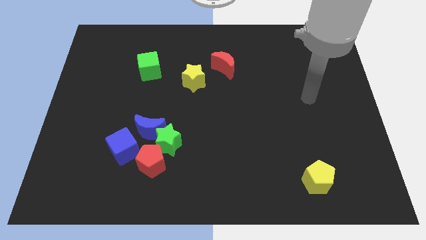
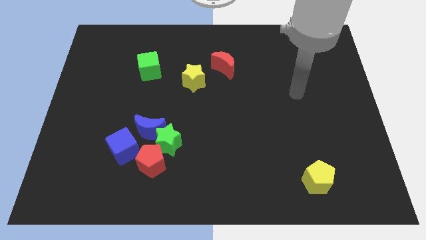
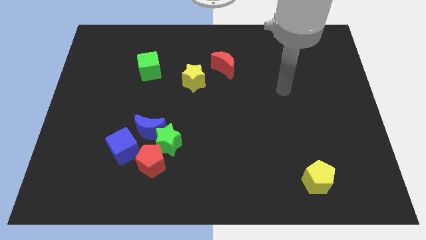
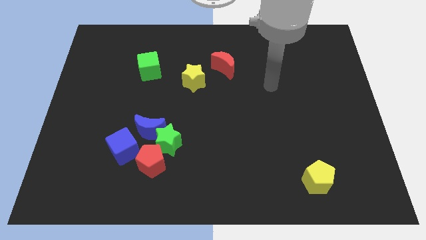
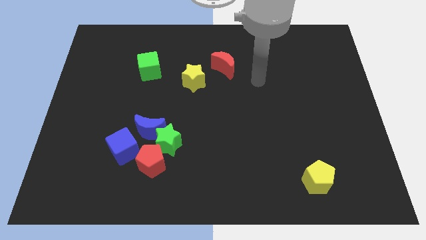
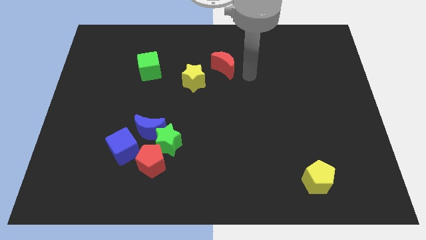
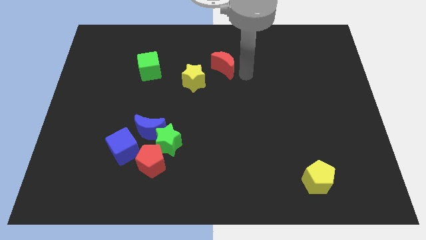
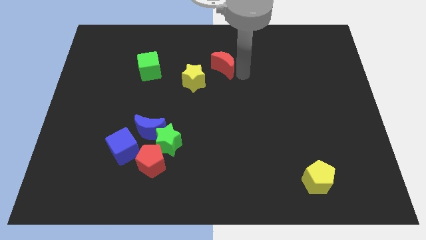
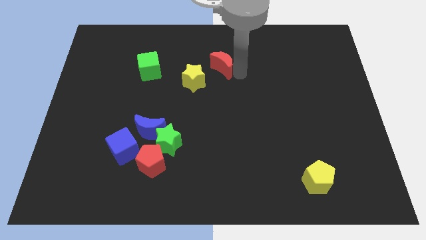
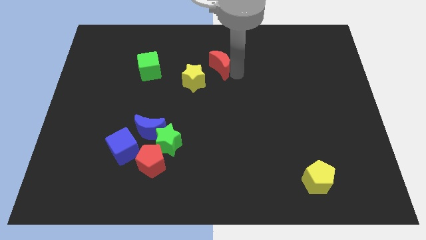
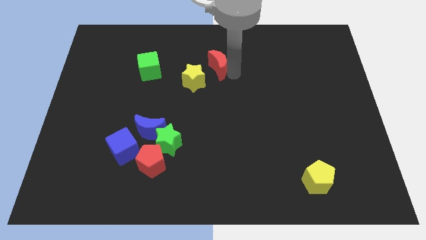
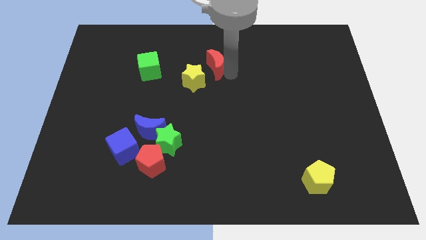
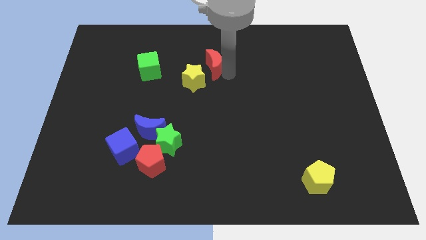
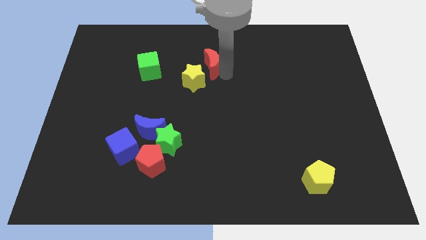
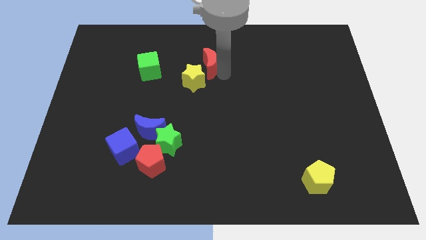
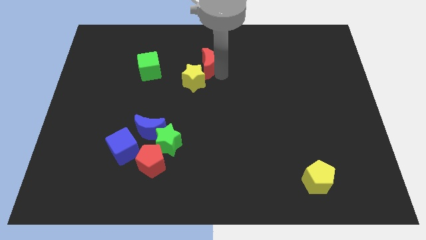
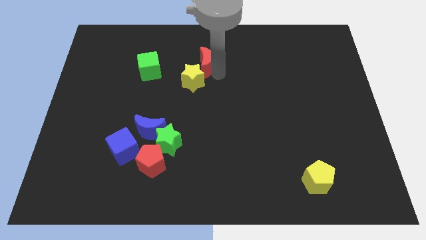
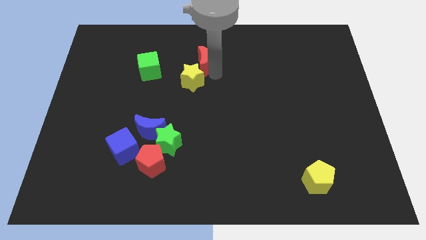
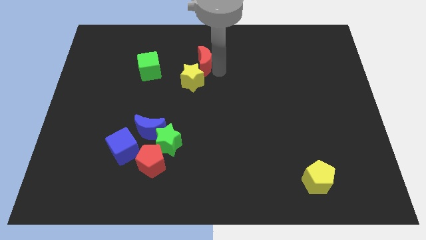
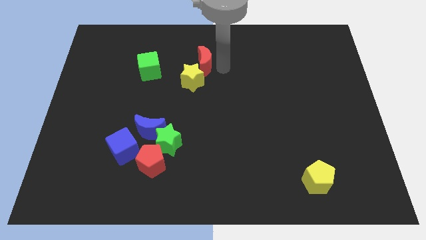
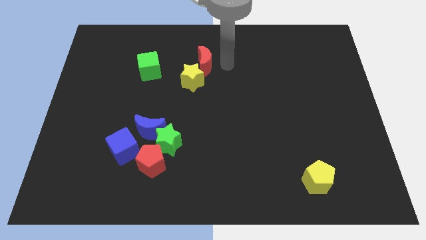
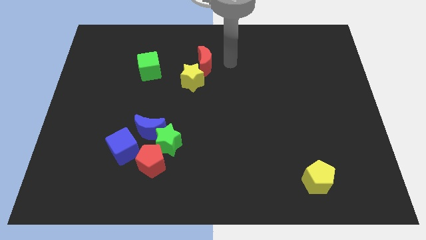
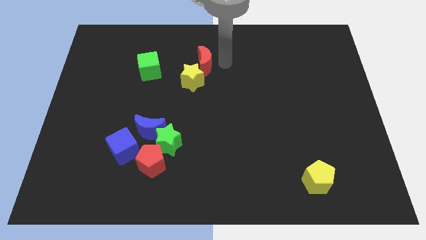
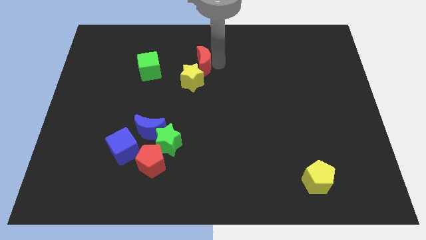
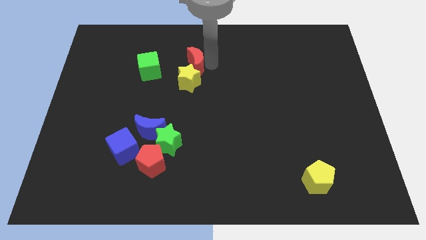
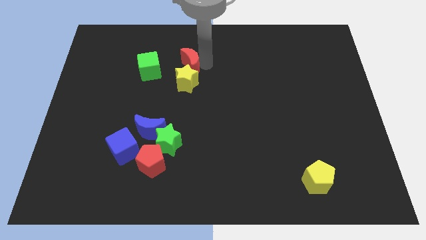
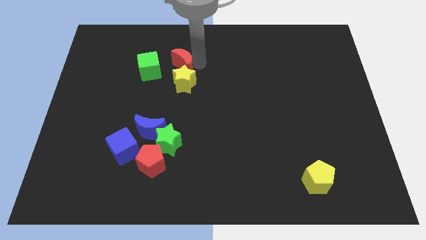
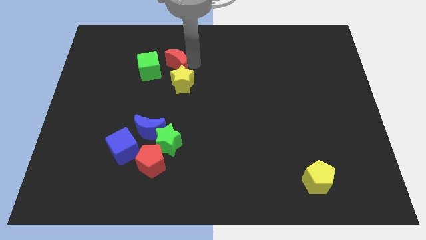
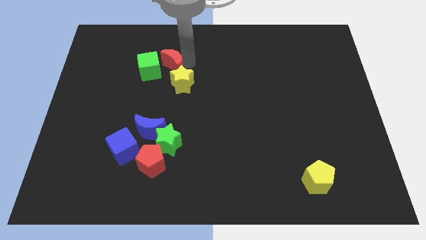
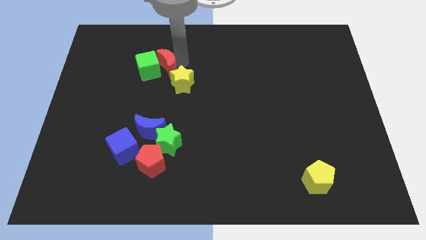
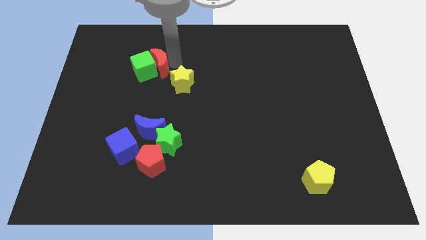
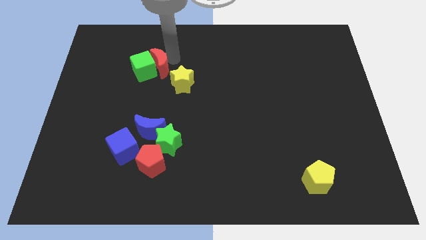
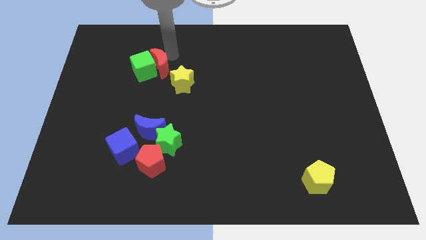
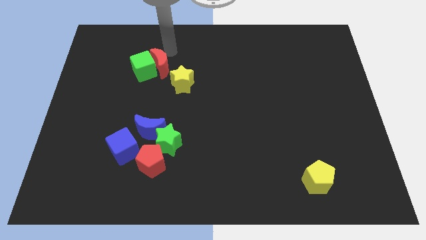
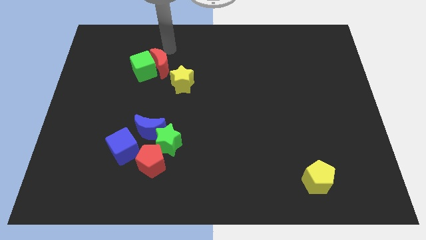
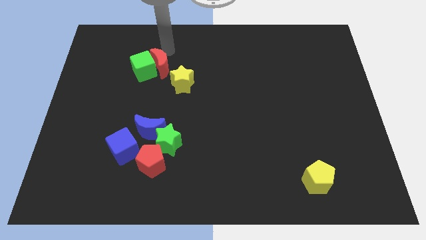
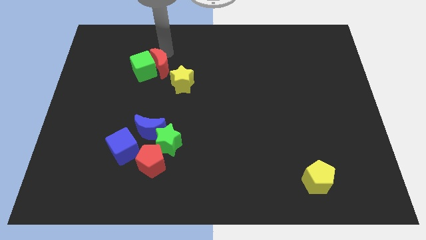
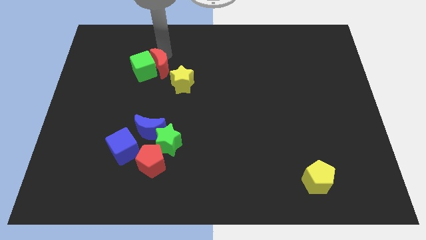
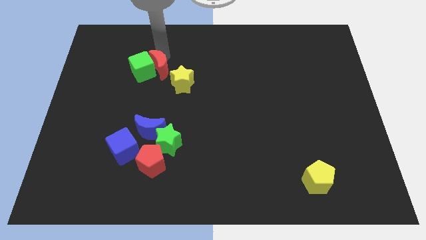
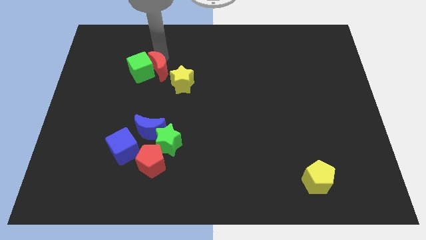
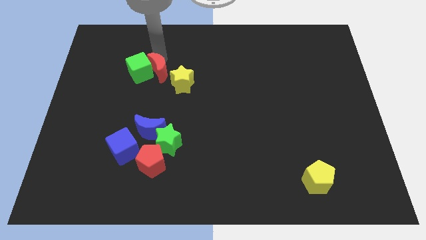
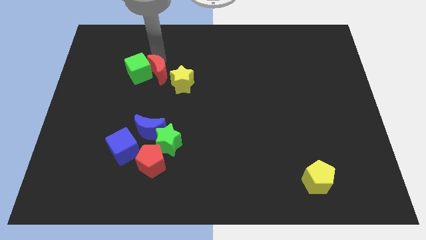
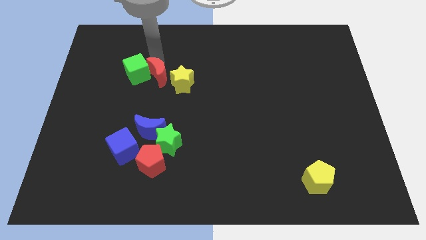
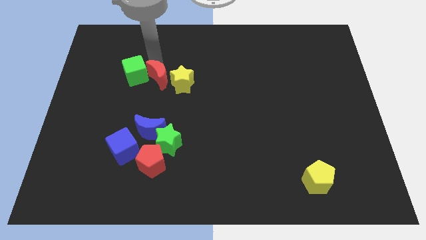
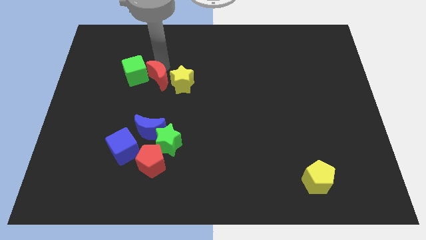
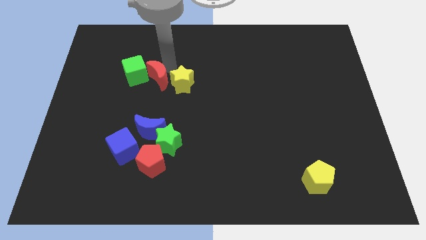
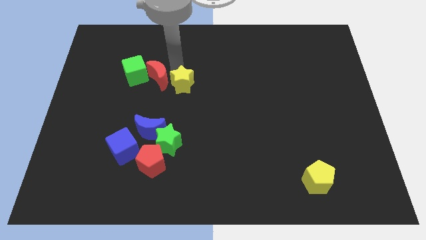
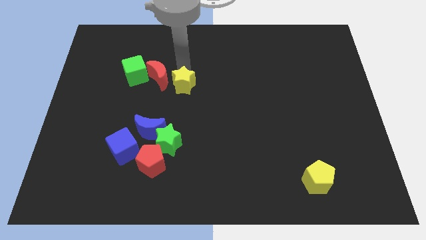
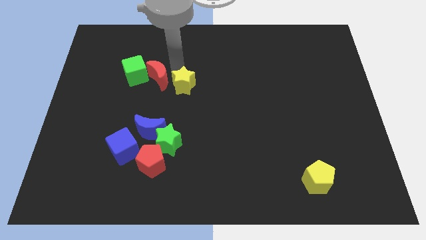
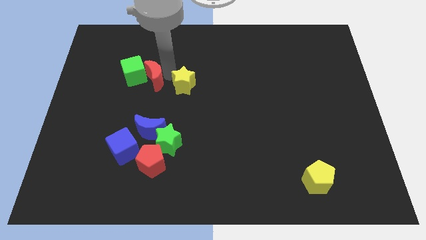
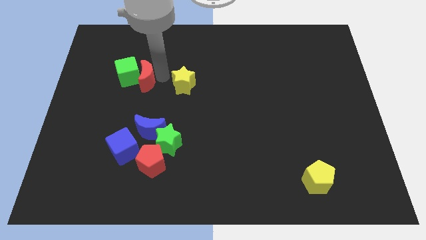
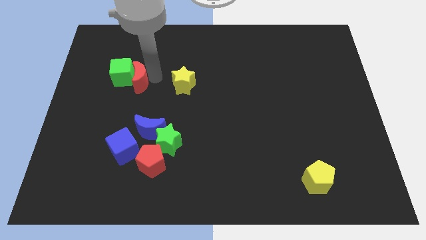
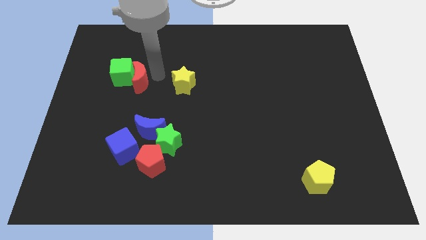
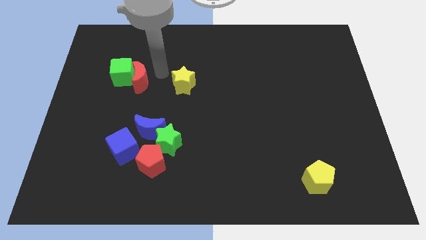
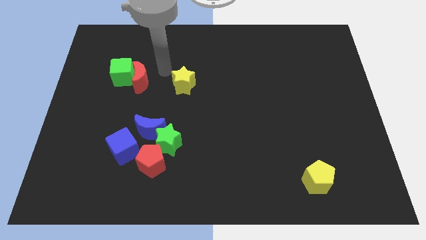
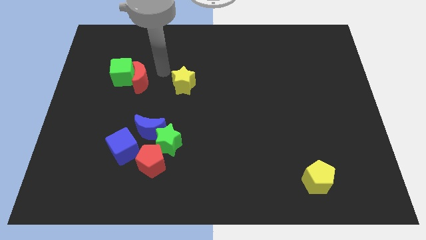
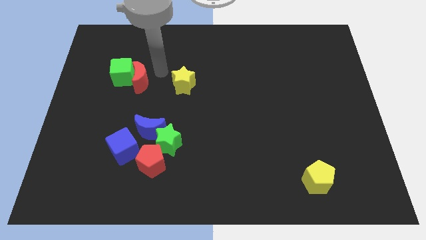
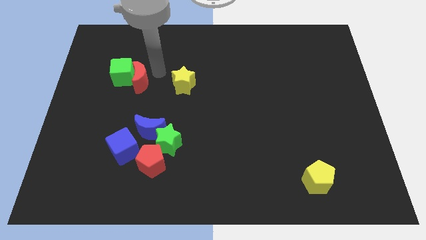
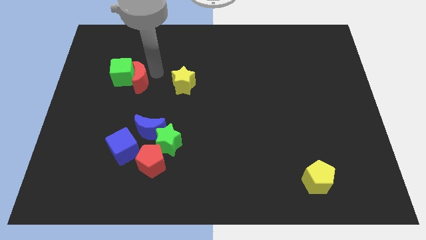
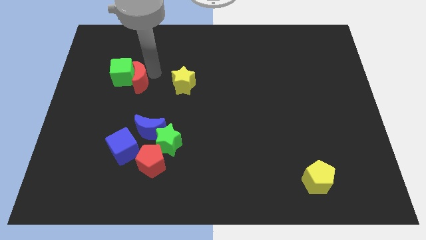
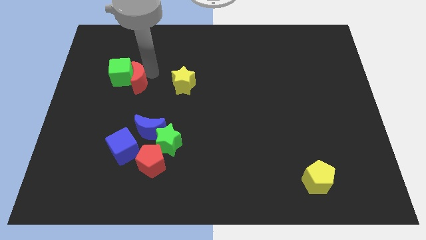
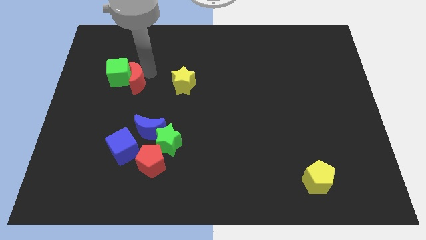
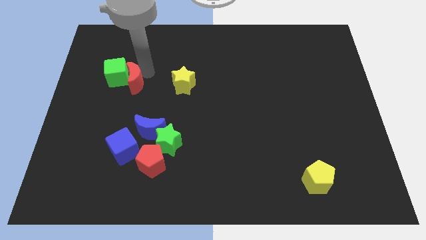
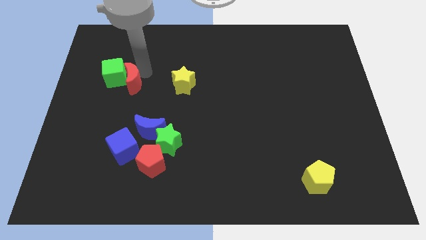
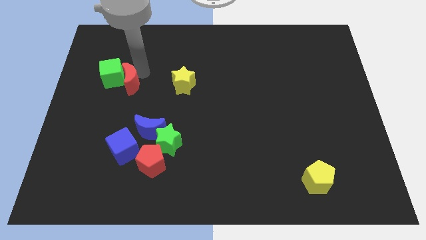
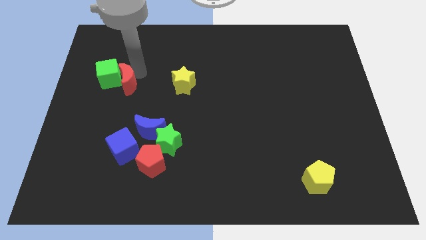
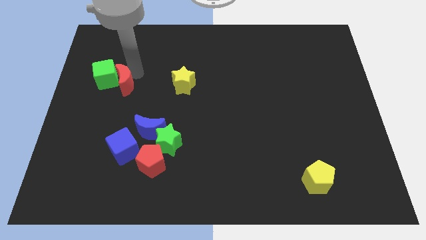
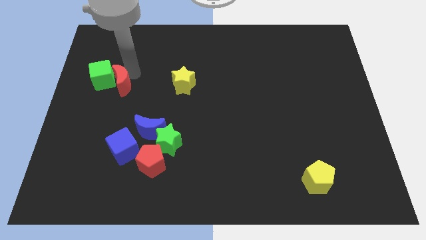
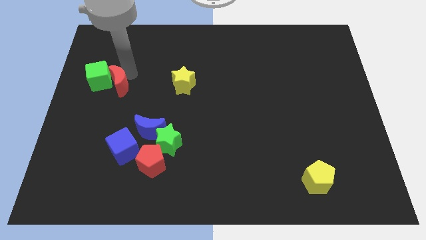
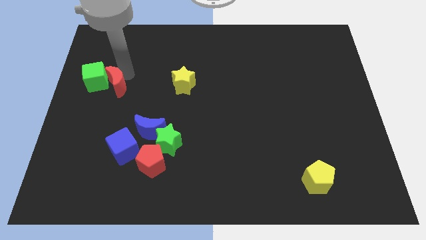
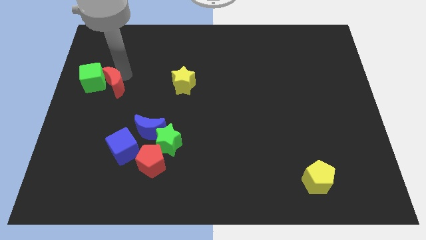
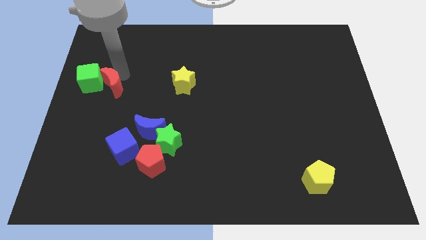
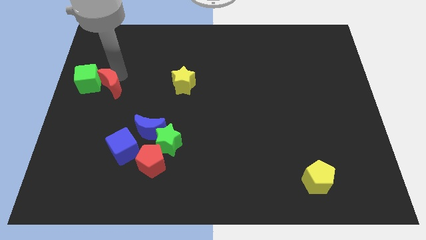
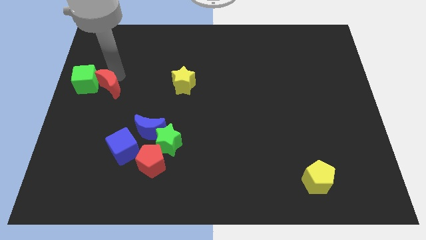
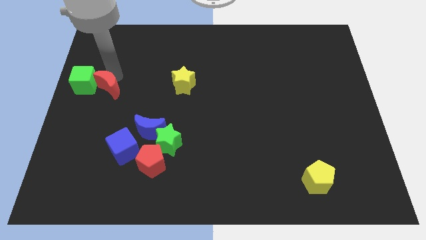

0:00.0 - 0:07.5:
move the red moon to the left side
